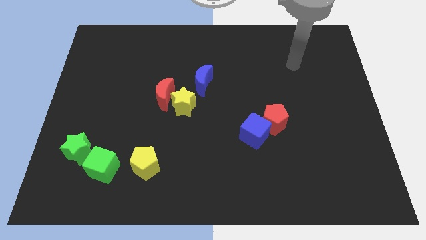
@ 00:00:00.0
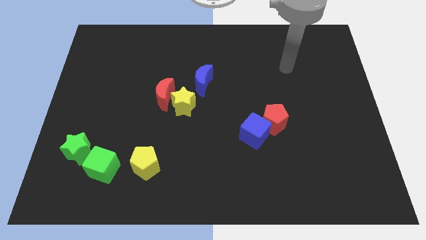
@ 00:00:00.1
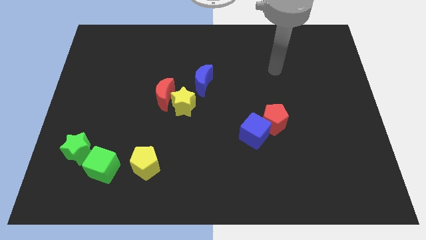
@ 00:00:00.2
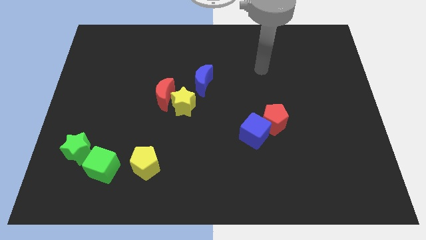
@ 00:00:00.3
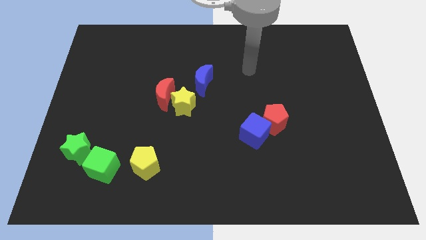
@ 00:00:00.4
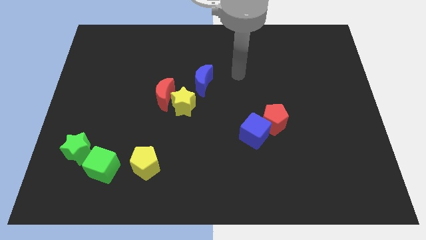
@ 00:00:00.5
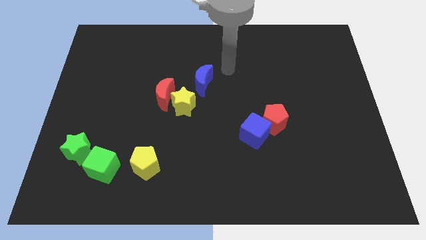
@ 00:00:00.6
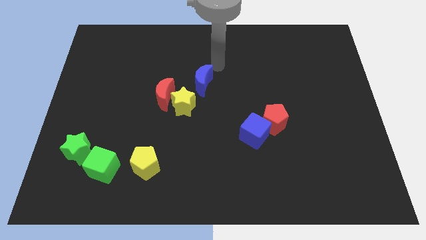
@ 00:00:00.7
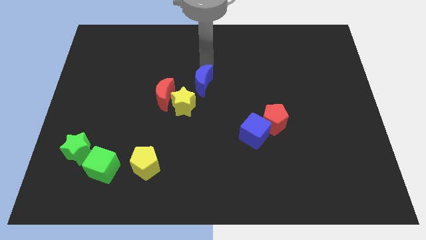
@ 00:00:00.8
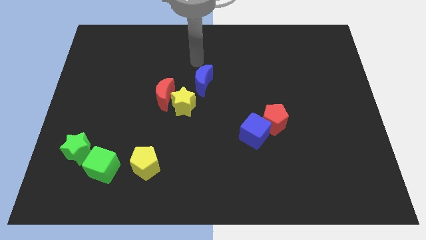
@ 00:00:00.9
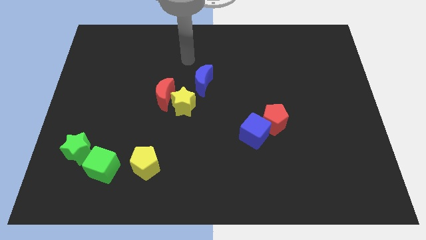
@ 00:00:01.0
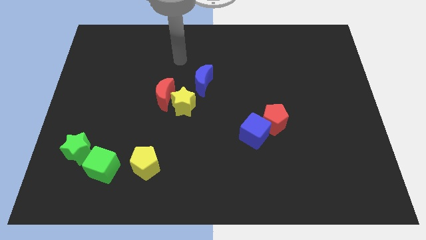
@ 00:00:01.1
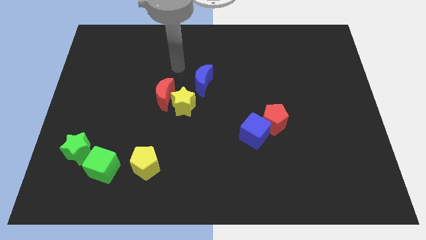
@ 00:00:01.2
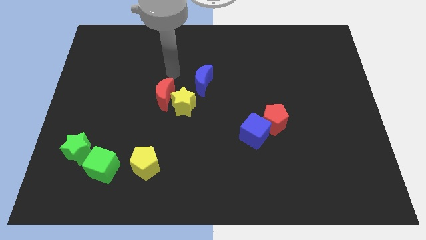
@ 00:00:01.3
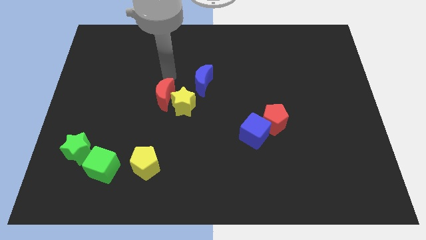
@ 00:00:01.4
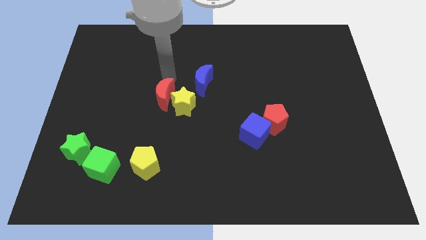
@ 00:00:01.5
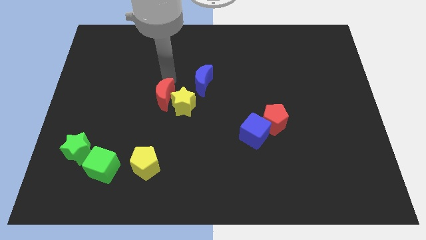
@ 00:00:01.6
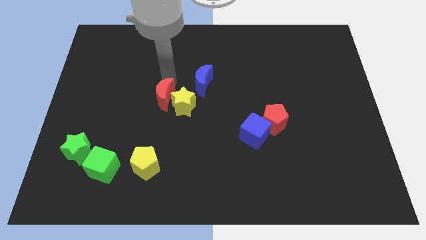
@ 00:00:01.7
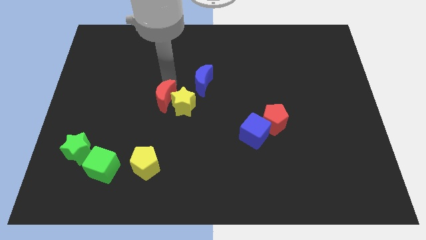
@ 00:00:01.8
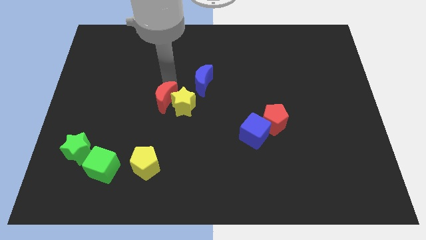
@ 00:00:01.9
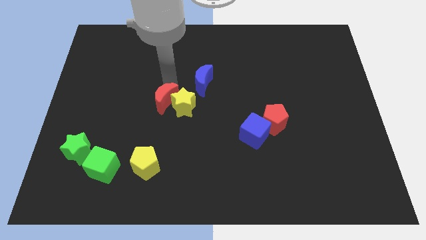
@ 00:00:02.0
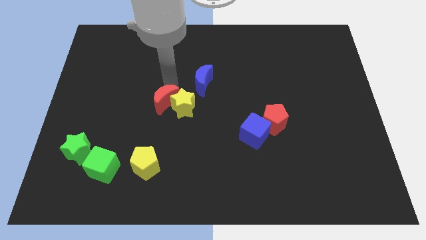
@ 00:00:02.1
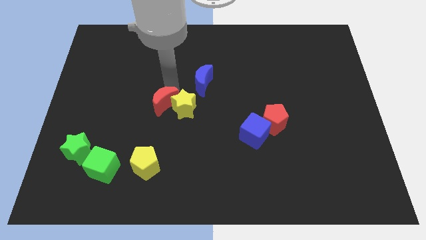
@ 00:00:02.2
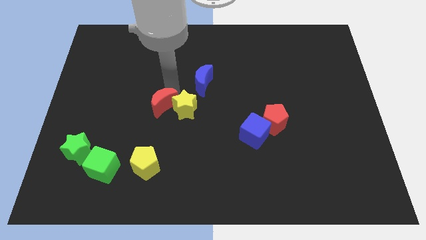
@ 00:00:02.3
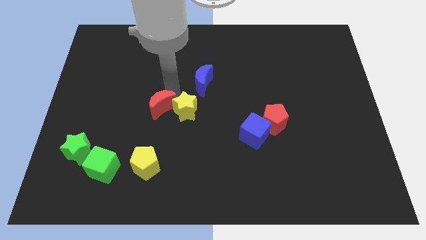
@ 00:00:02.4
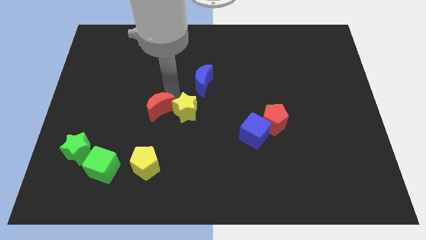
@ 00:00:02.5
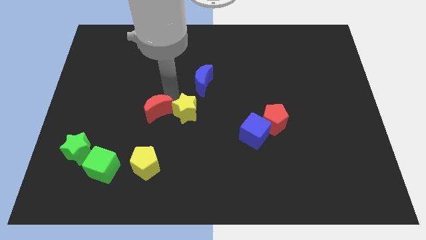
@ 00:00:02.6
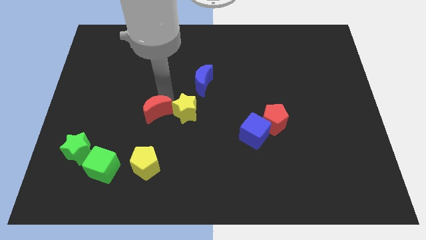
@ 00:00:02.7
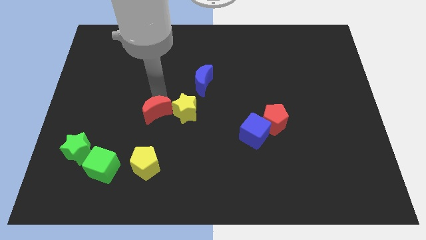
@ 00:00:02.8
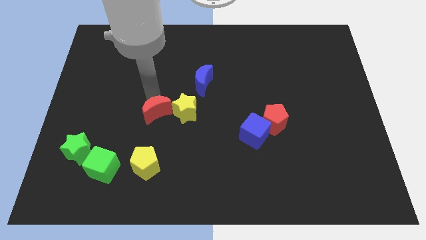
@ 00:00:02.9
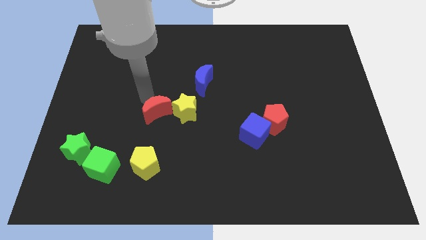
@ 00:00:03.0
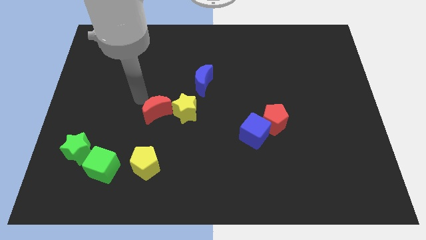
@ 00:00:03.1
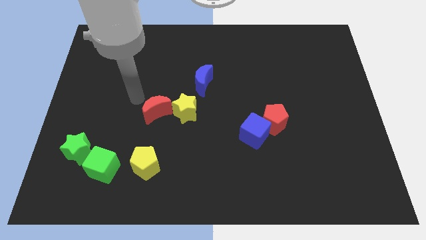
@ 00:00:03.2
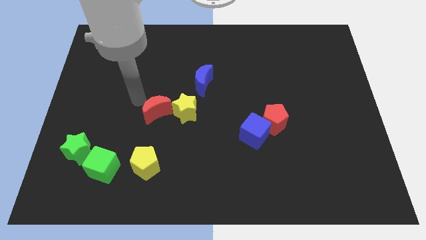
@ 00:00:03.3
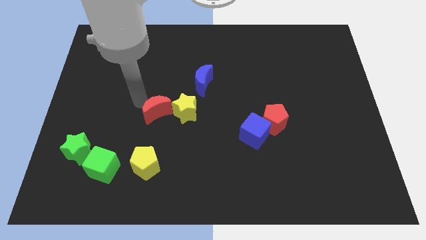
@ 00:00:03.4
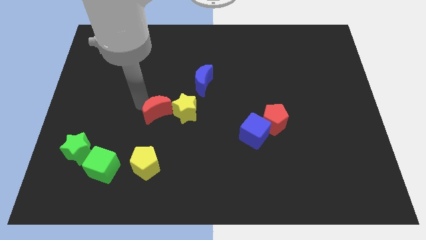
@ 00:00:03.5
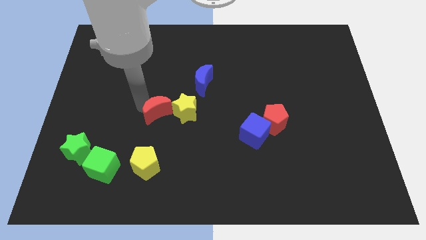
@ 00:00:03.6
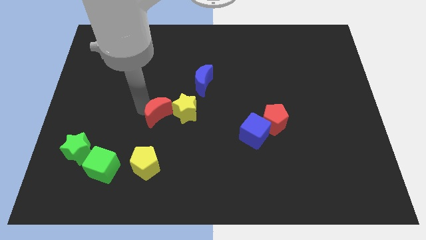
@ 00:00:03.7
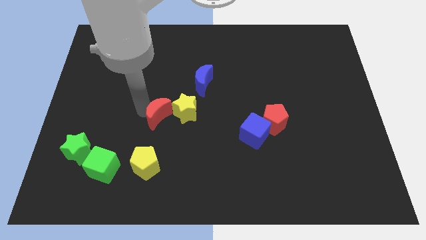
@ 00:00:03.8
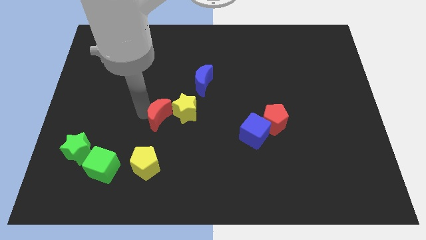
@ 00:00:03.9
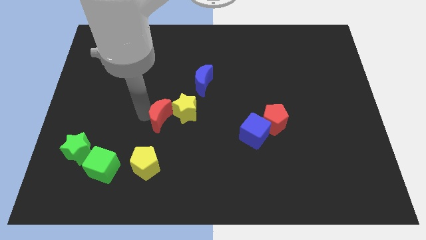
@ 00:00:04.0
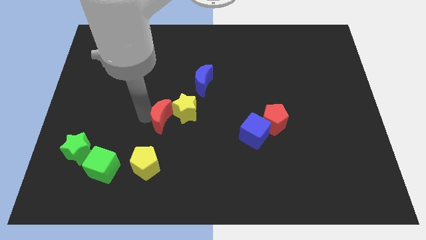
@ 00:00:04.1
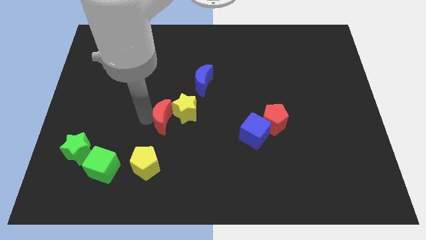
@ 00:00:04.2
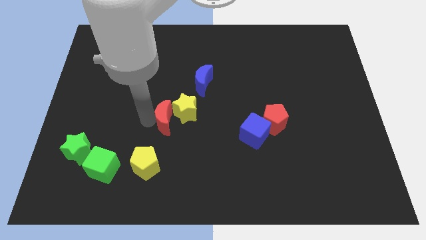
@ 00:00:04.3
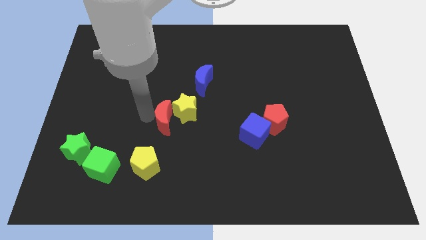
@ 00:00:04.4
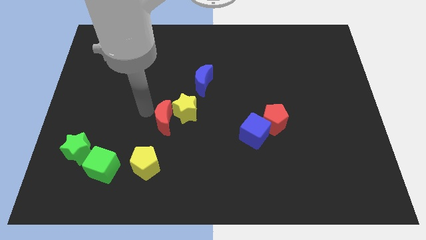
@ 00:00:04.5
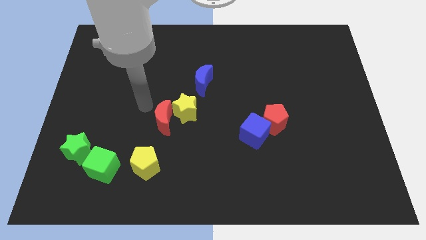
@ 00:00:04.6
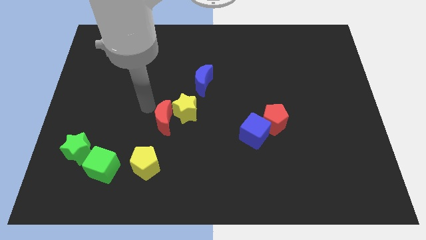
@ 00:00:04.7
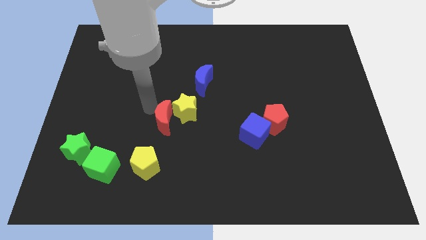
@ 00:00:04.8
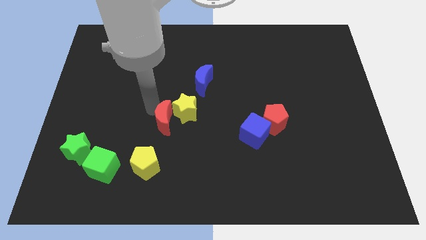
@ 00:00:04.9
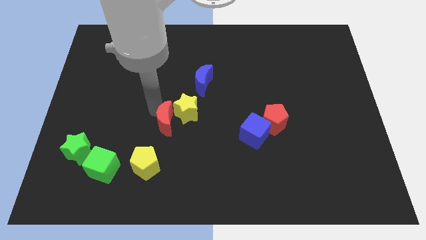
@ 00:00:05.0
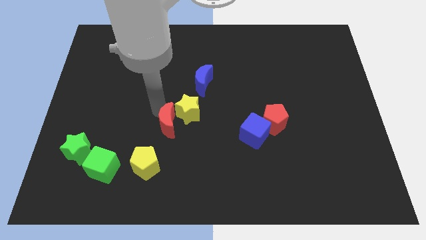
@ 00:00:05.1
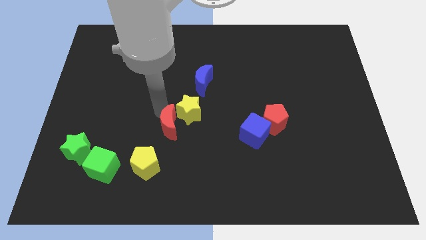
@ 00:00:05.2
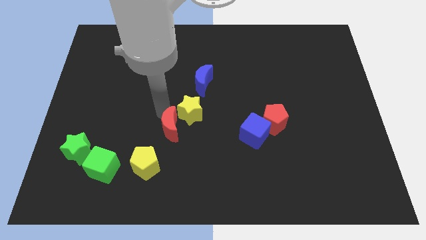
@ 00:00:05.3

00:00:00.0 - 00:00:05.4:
slightly move the red moon diagonally downwards and right

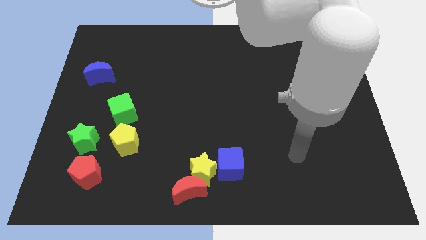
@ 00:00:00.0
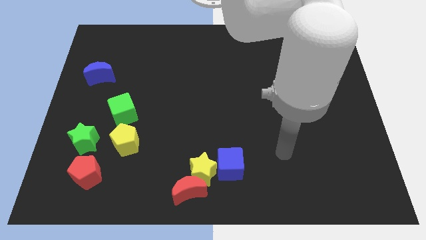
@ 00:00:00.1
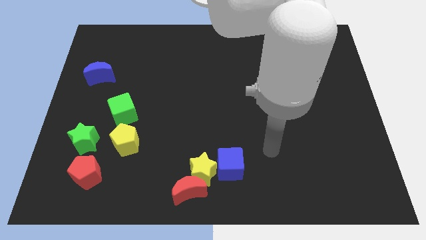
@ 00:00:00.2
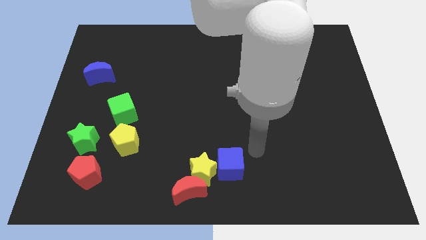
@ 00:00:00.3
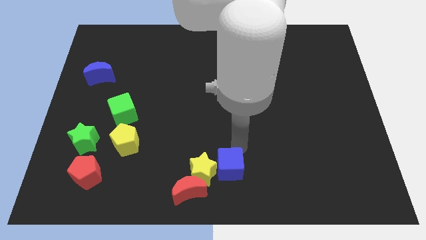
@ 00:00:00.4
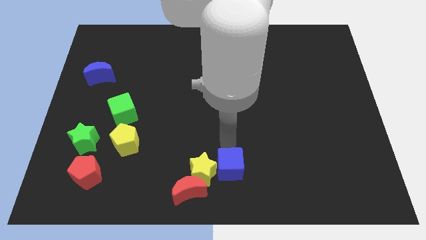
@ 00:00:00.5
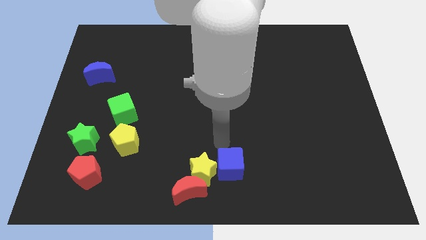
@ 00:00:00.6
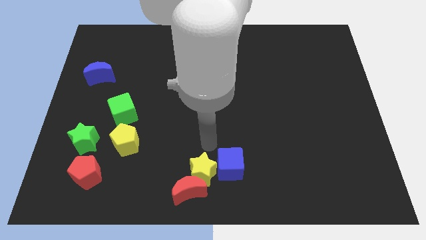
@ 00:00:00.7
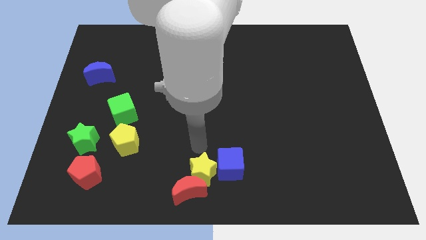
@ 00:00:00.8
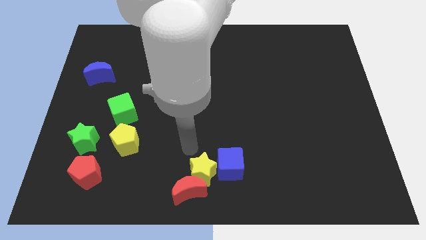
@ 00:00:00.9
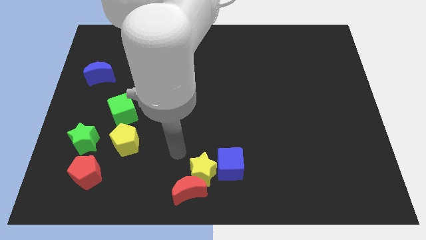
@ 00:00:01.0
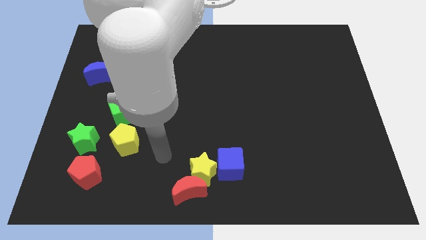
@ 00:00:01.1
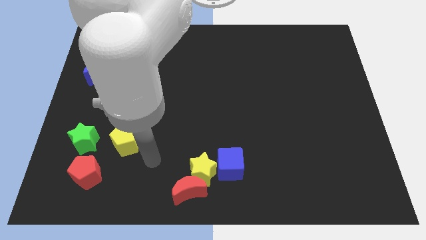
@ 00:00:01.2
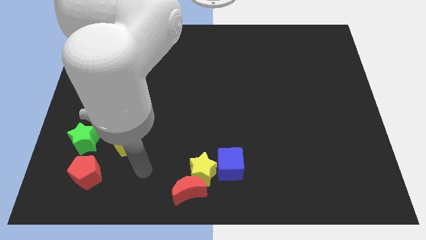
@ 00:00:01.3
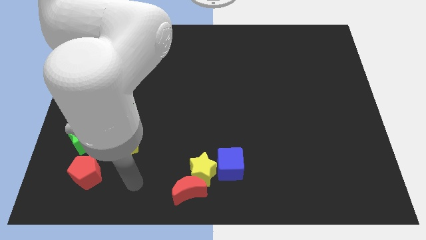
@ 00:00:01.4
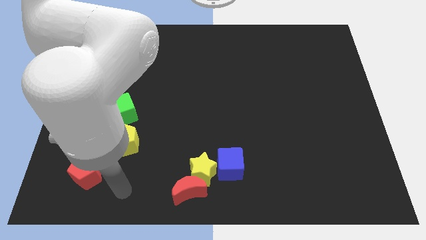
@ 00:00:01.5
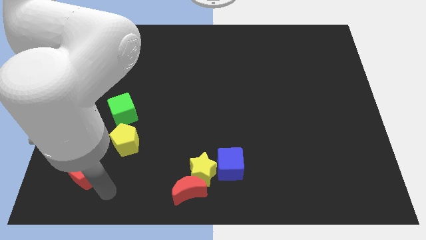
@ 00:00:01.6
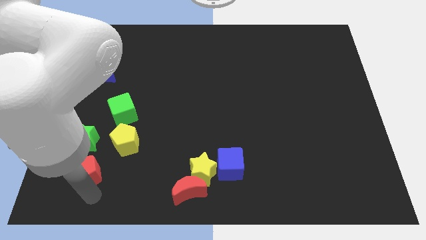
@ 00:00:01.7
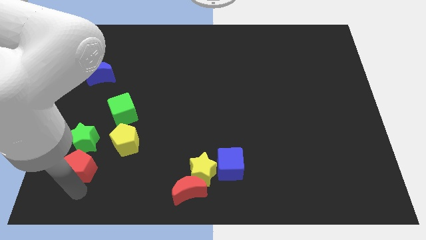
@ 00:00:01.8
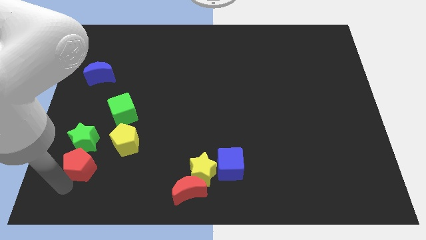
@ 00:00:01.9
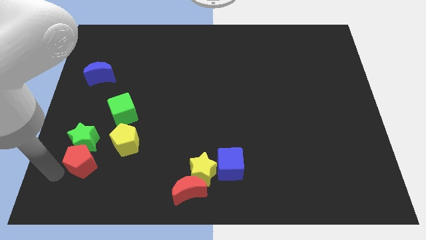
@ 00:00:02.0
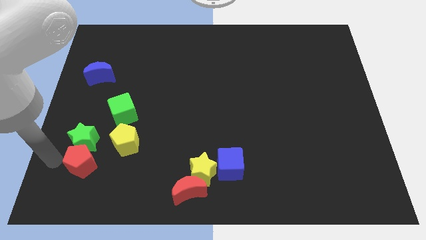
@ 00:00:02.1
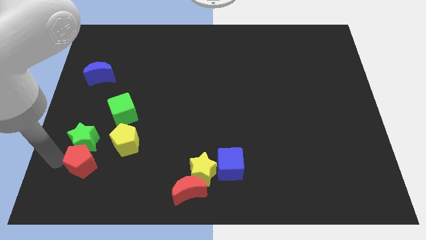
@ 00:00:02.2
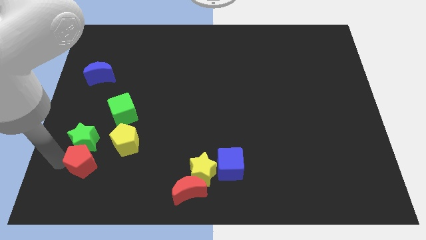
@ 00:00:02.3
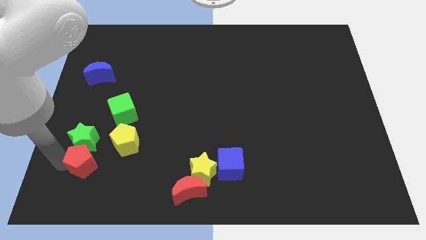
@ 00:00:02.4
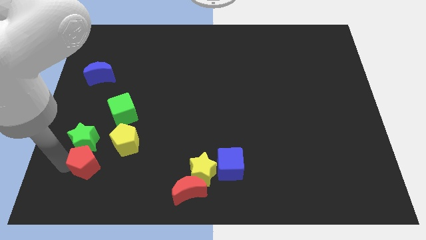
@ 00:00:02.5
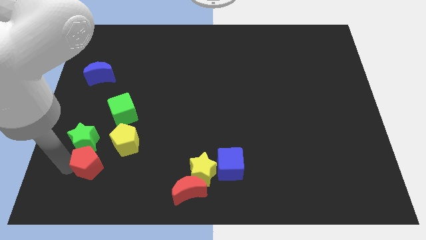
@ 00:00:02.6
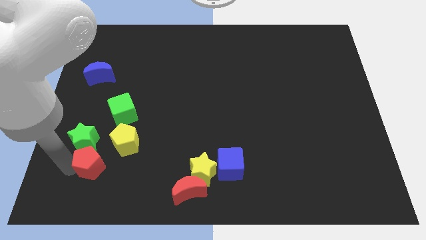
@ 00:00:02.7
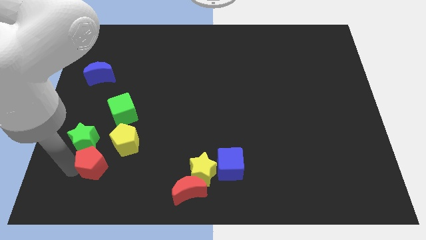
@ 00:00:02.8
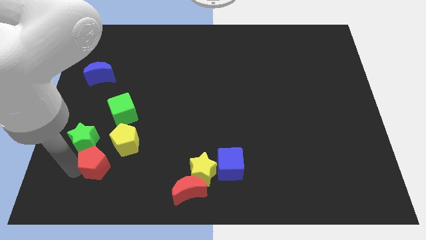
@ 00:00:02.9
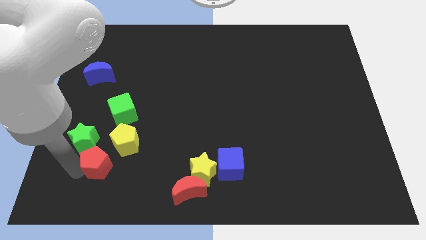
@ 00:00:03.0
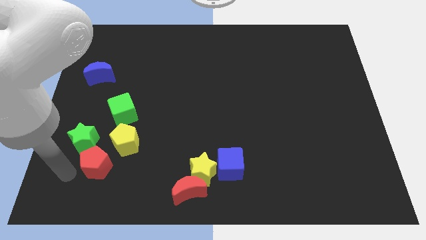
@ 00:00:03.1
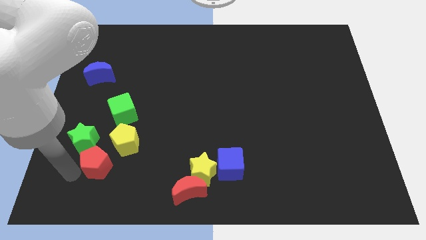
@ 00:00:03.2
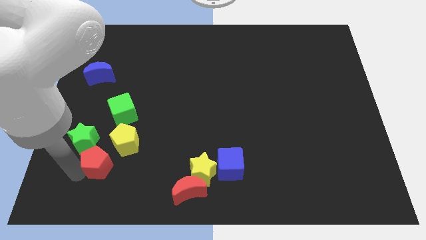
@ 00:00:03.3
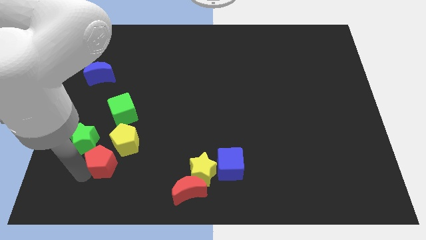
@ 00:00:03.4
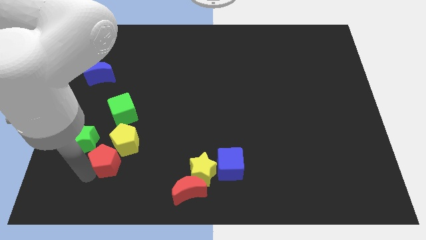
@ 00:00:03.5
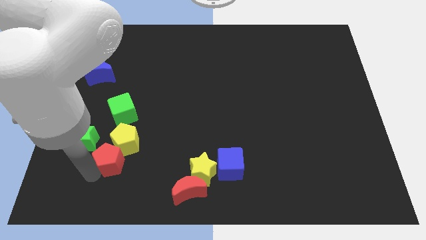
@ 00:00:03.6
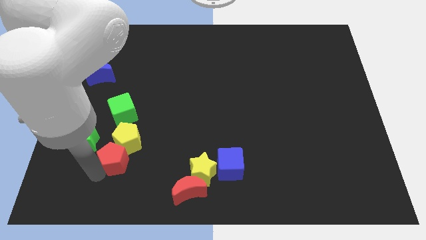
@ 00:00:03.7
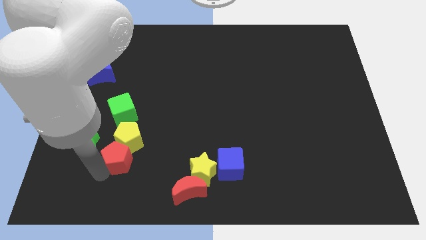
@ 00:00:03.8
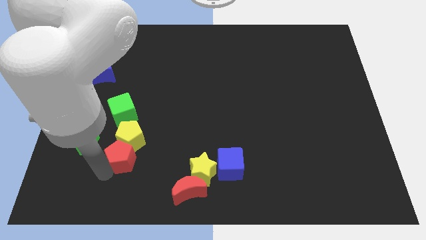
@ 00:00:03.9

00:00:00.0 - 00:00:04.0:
slightly move the red pentagon up and then to the right
